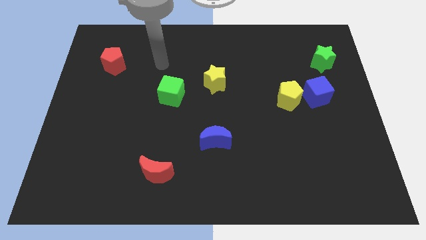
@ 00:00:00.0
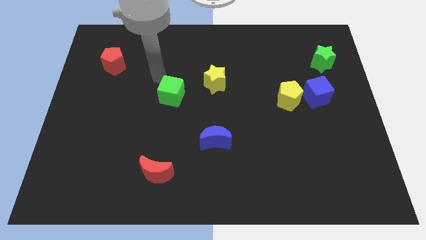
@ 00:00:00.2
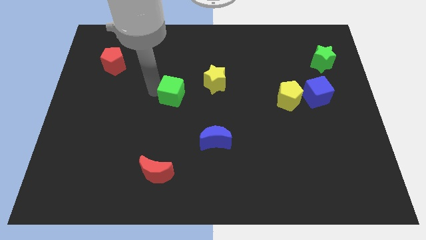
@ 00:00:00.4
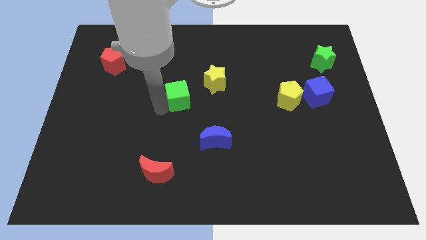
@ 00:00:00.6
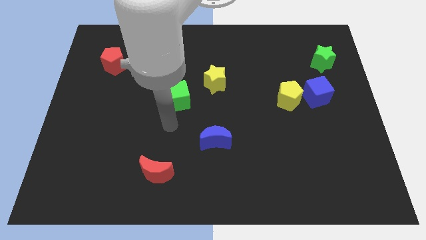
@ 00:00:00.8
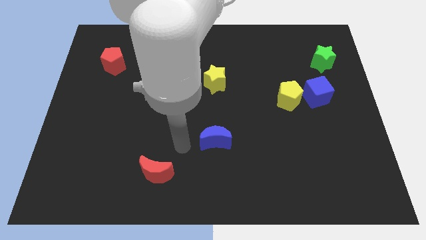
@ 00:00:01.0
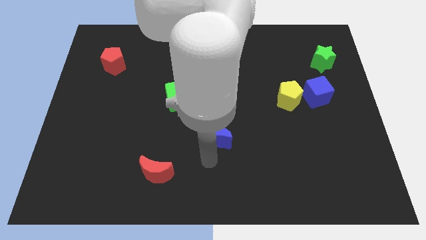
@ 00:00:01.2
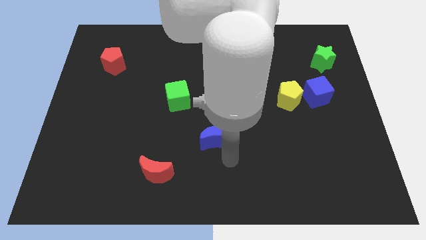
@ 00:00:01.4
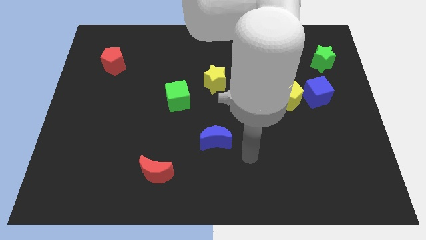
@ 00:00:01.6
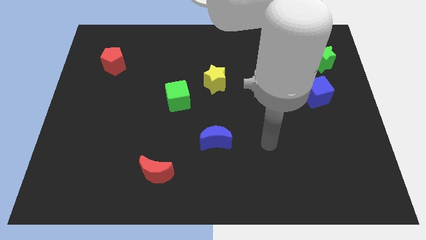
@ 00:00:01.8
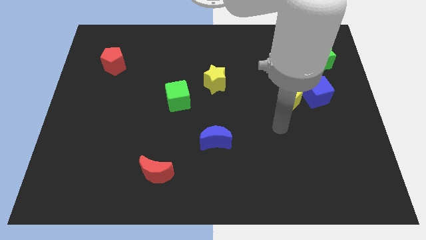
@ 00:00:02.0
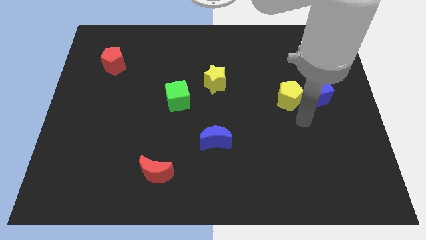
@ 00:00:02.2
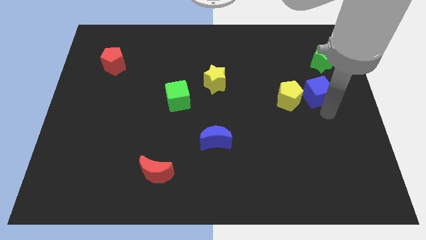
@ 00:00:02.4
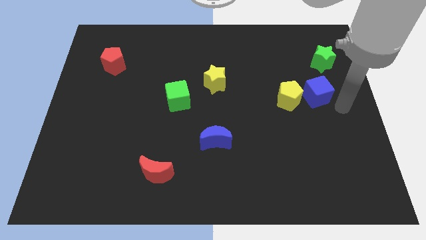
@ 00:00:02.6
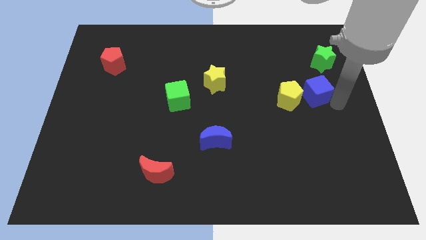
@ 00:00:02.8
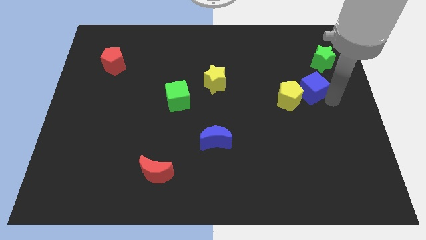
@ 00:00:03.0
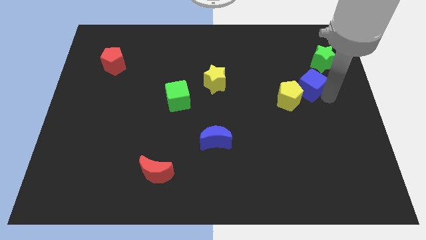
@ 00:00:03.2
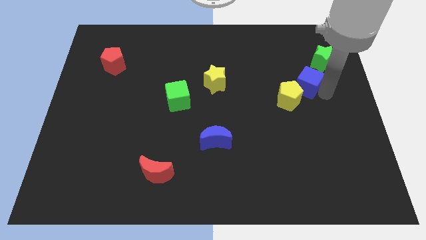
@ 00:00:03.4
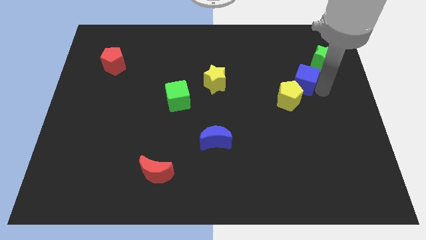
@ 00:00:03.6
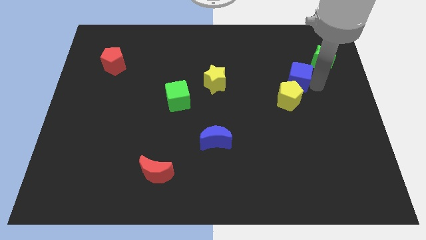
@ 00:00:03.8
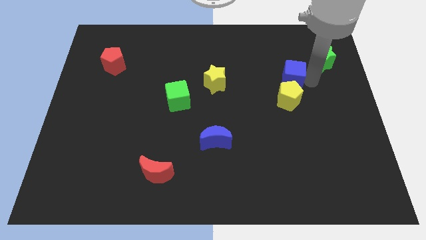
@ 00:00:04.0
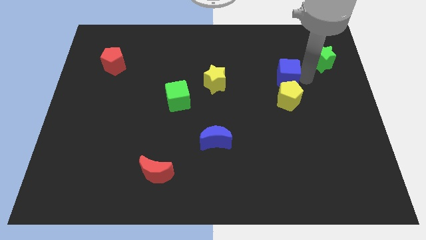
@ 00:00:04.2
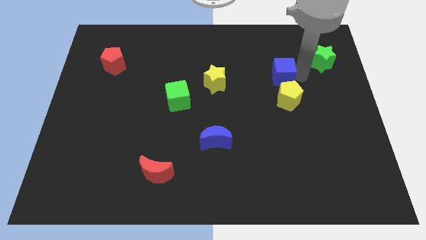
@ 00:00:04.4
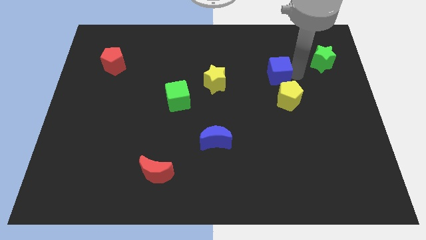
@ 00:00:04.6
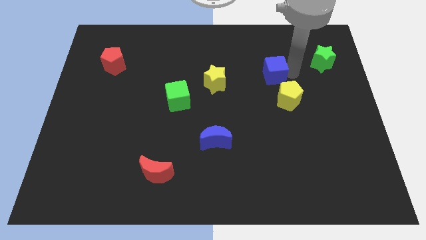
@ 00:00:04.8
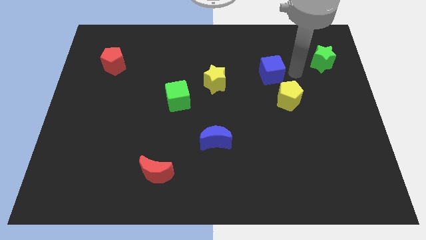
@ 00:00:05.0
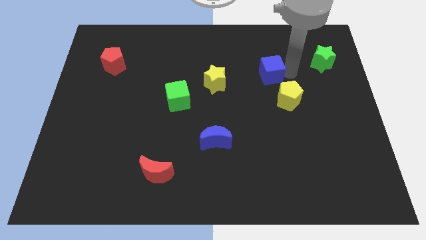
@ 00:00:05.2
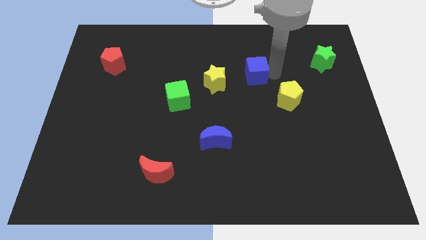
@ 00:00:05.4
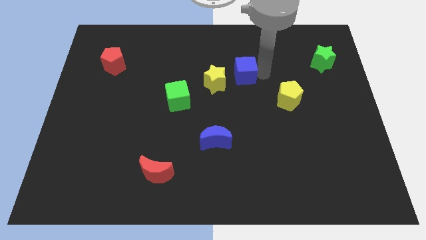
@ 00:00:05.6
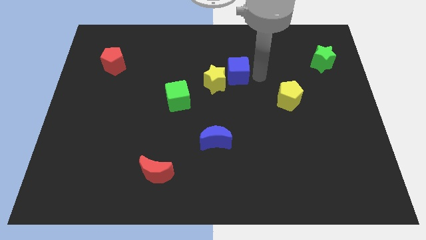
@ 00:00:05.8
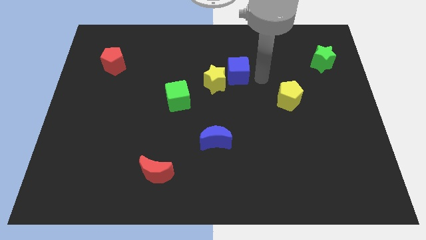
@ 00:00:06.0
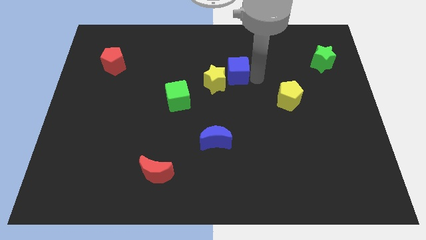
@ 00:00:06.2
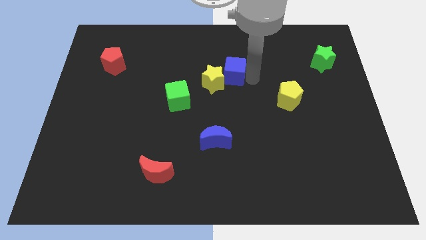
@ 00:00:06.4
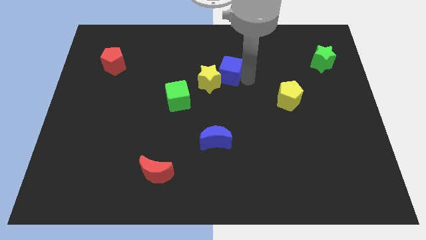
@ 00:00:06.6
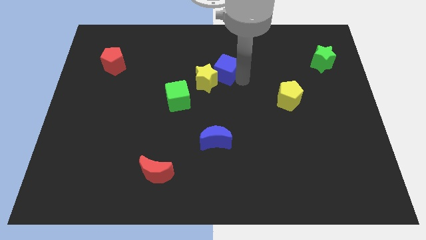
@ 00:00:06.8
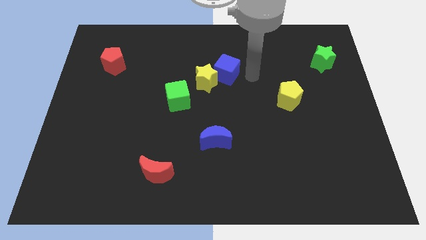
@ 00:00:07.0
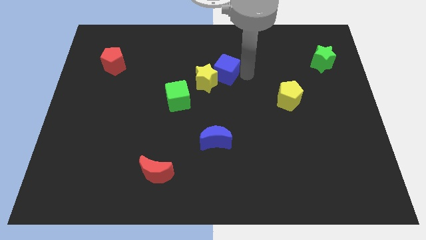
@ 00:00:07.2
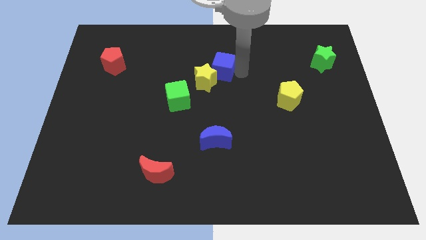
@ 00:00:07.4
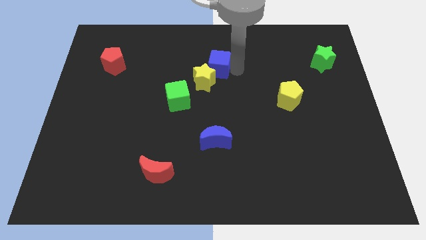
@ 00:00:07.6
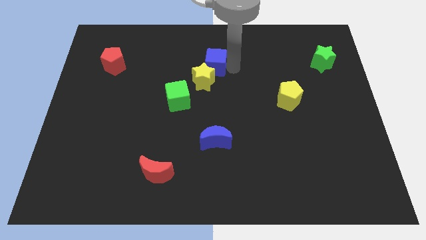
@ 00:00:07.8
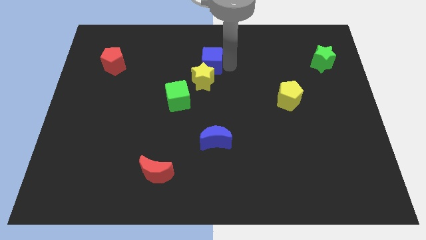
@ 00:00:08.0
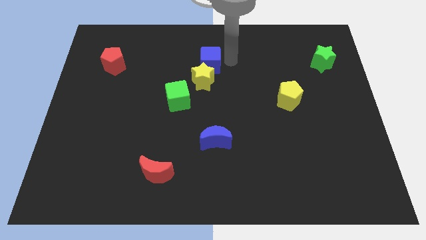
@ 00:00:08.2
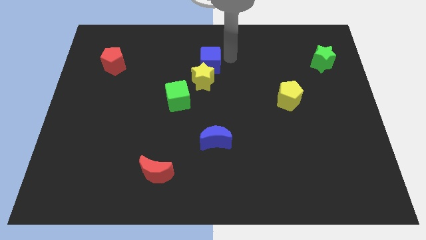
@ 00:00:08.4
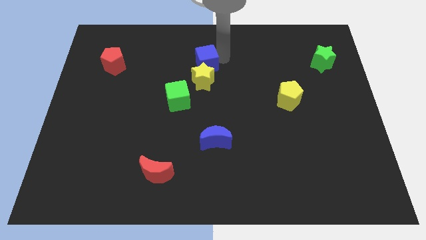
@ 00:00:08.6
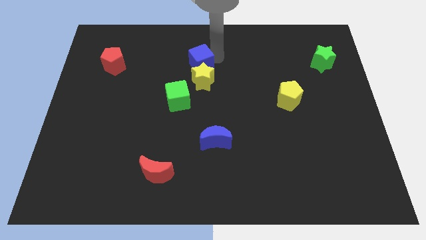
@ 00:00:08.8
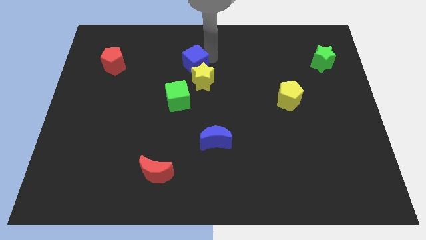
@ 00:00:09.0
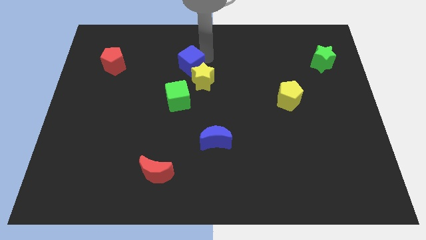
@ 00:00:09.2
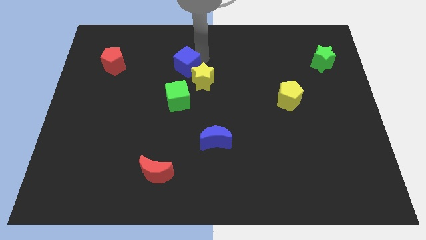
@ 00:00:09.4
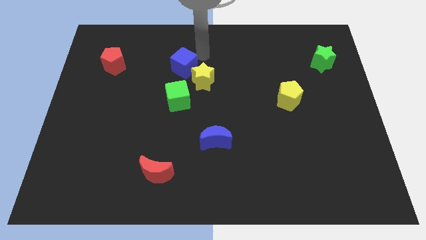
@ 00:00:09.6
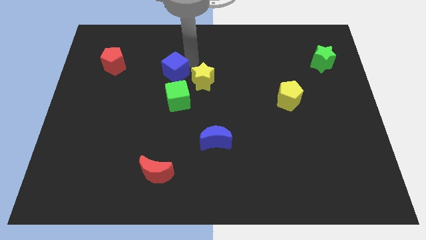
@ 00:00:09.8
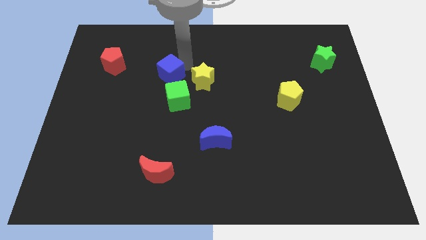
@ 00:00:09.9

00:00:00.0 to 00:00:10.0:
move the blue cube to the top left of the green cube

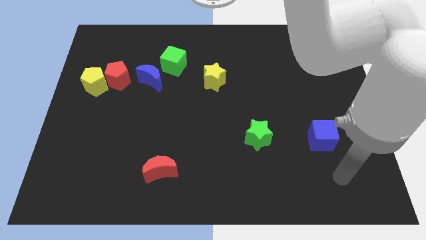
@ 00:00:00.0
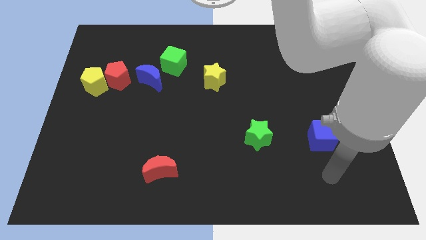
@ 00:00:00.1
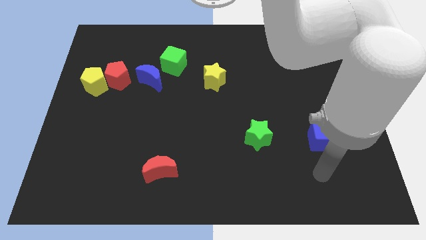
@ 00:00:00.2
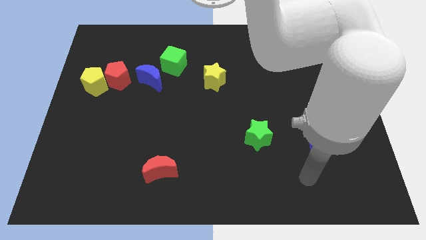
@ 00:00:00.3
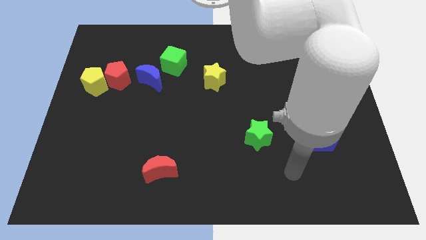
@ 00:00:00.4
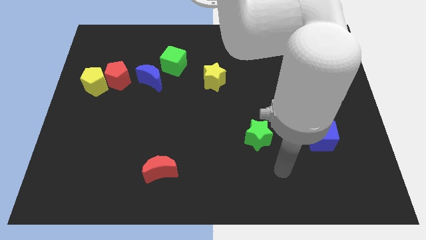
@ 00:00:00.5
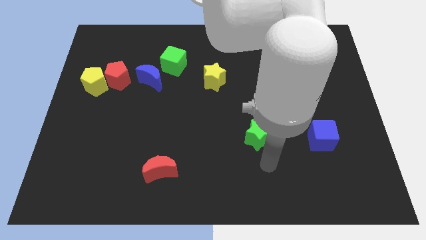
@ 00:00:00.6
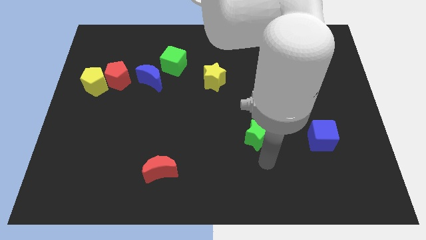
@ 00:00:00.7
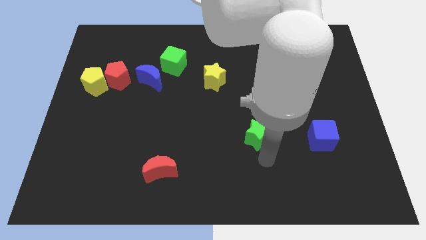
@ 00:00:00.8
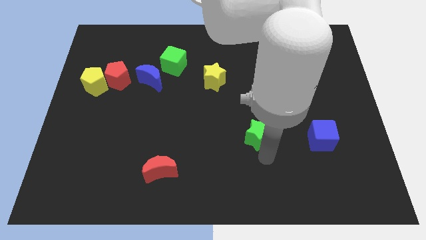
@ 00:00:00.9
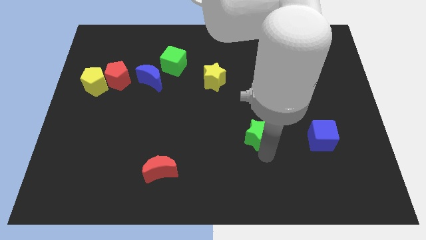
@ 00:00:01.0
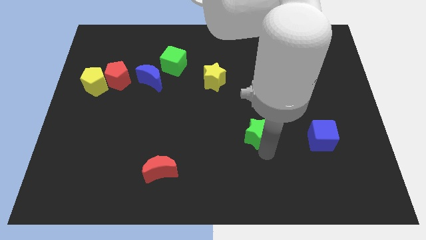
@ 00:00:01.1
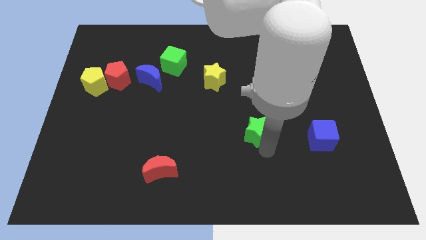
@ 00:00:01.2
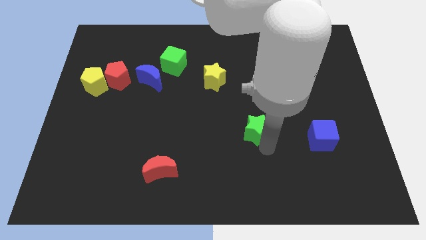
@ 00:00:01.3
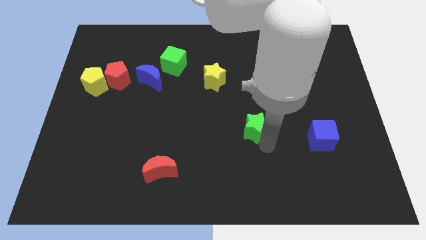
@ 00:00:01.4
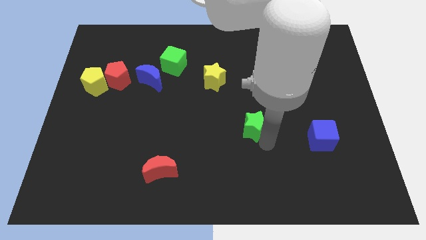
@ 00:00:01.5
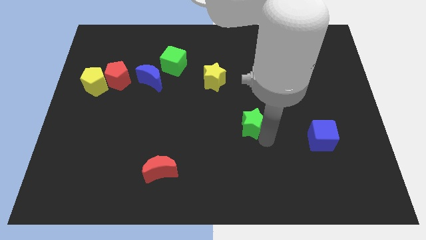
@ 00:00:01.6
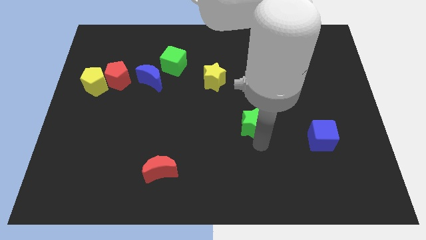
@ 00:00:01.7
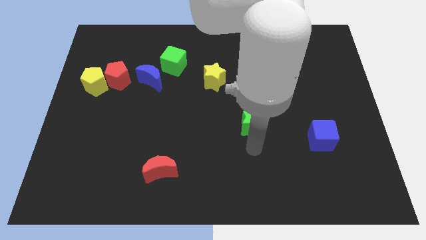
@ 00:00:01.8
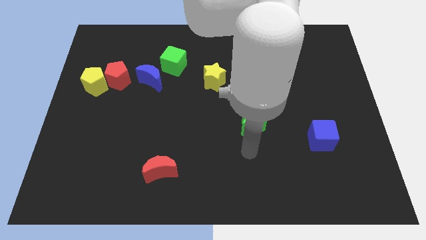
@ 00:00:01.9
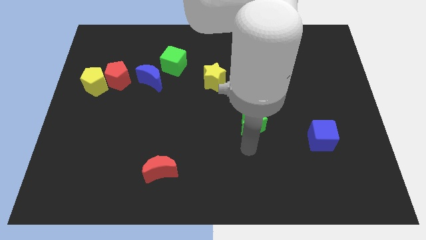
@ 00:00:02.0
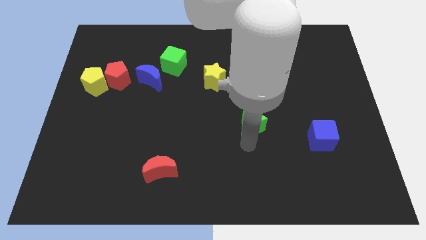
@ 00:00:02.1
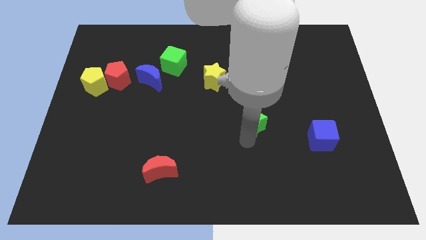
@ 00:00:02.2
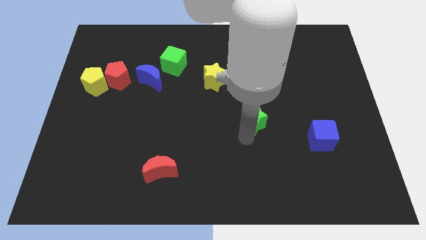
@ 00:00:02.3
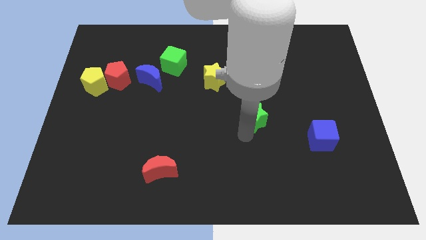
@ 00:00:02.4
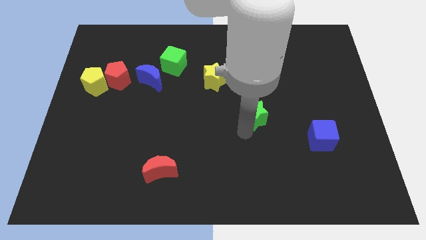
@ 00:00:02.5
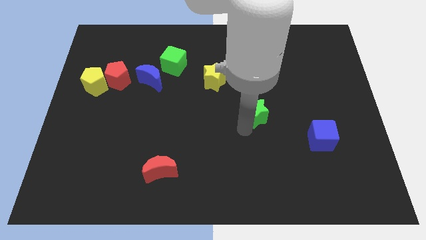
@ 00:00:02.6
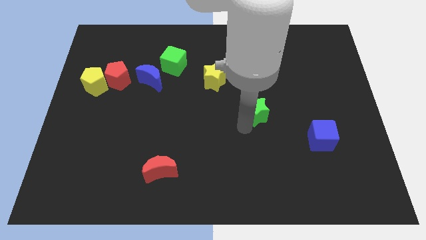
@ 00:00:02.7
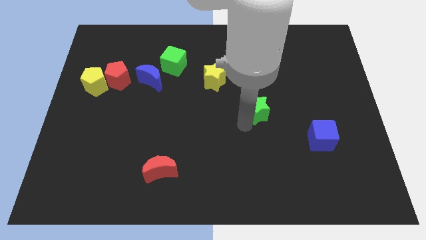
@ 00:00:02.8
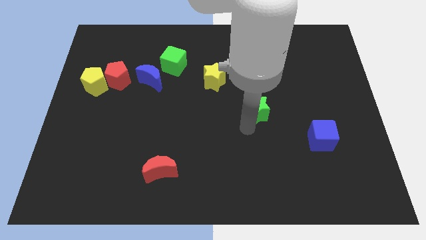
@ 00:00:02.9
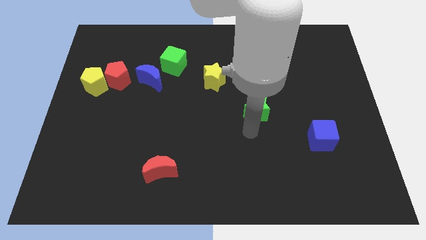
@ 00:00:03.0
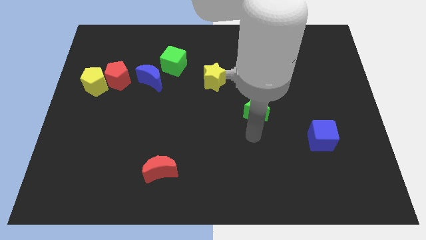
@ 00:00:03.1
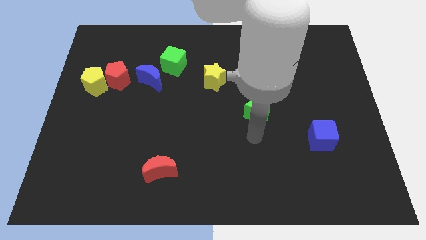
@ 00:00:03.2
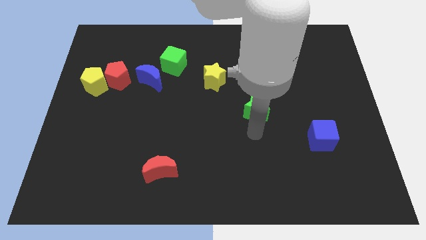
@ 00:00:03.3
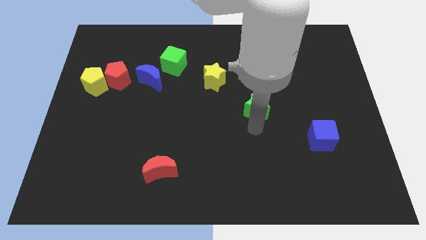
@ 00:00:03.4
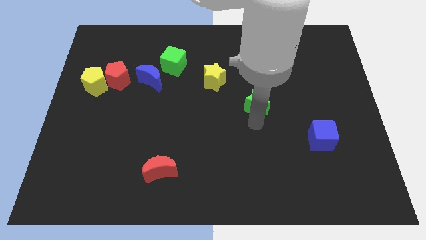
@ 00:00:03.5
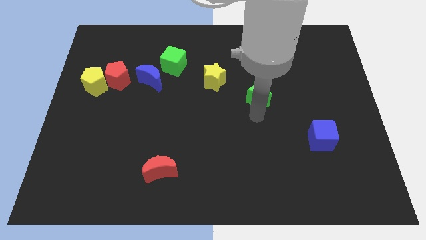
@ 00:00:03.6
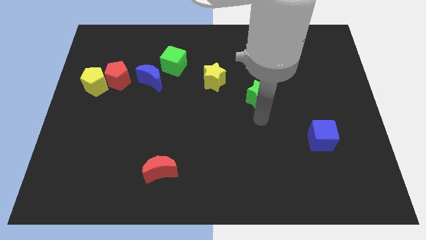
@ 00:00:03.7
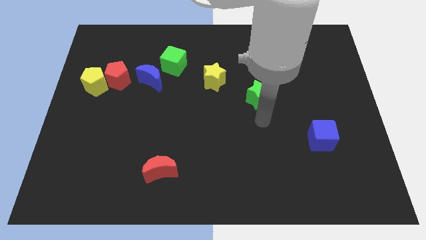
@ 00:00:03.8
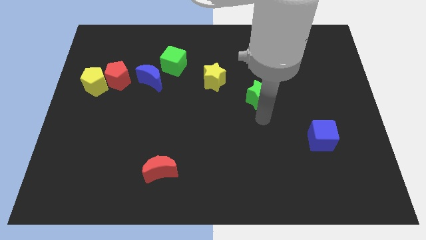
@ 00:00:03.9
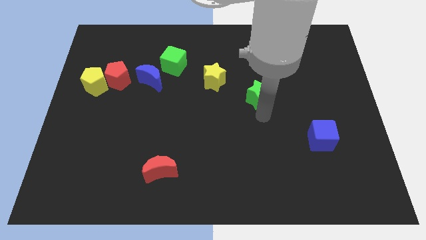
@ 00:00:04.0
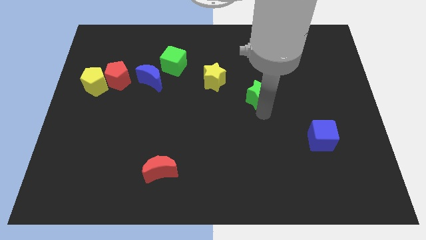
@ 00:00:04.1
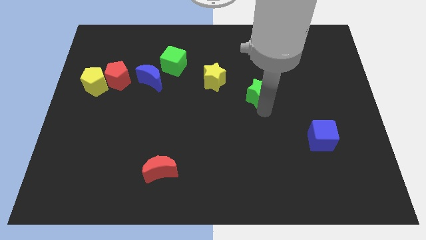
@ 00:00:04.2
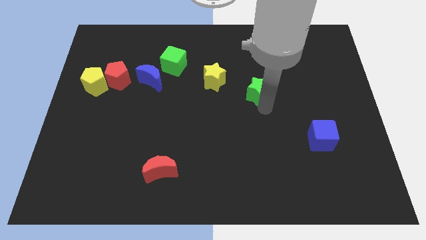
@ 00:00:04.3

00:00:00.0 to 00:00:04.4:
put the green star just right of the yellow star
